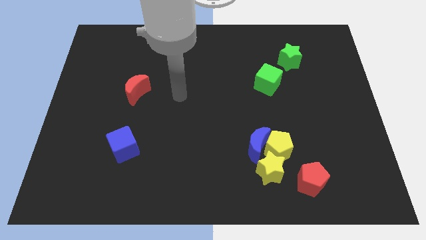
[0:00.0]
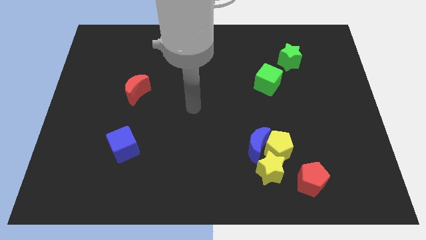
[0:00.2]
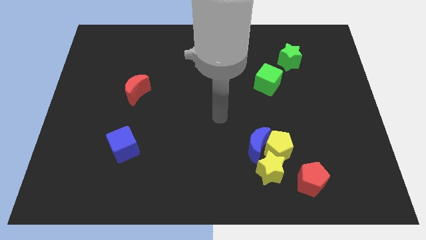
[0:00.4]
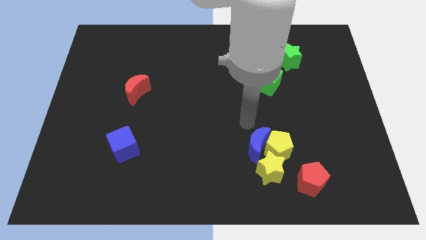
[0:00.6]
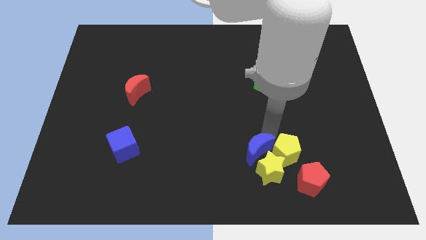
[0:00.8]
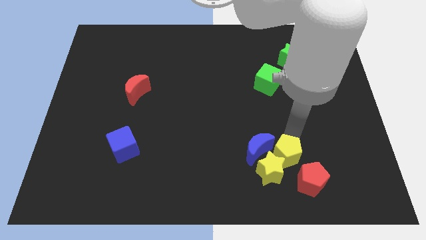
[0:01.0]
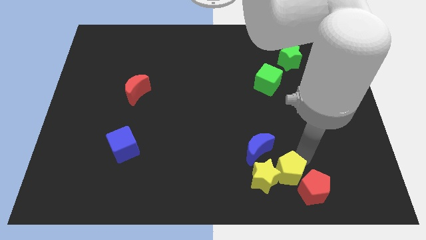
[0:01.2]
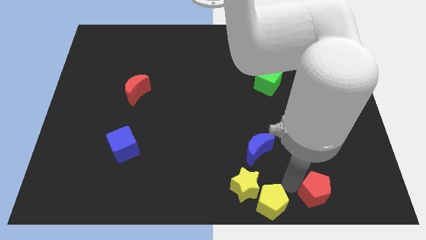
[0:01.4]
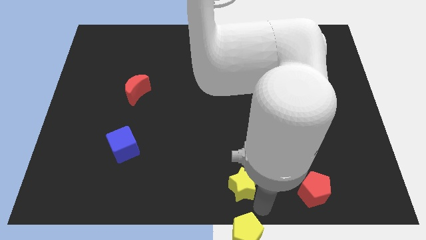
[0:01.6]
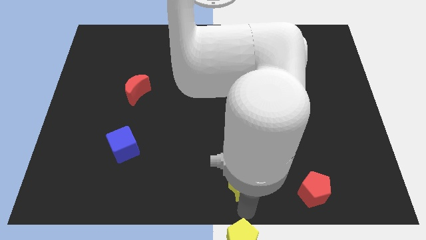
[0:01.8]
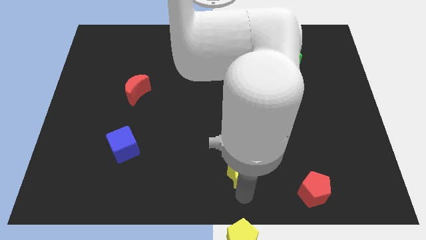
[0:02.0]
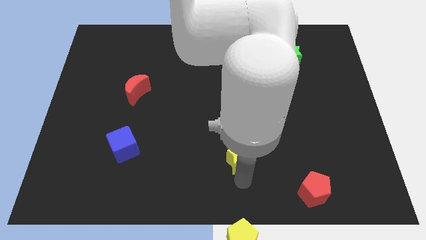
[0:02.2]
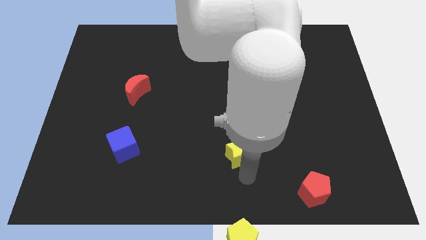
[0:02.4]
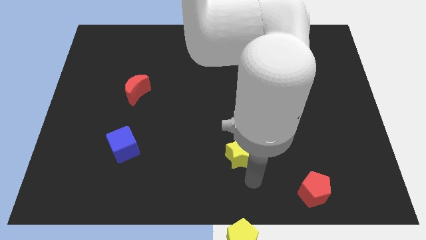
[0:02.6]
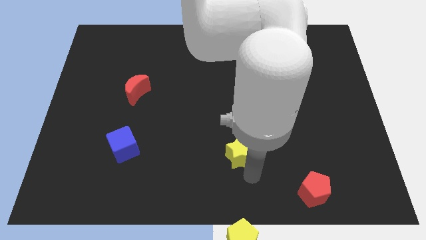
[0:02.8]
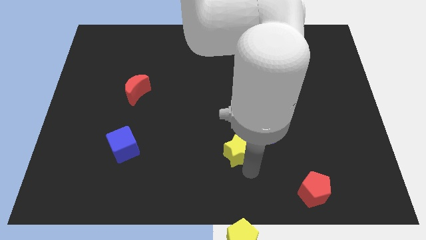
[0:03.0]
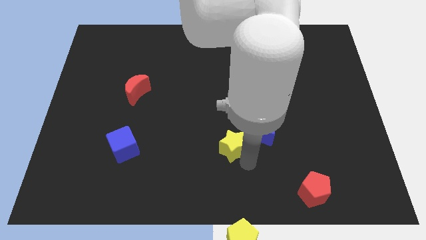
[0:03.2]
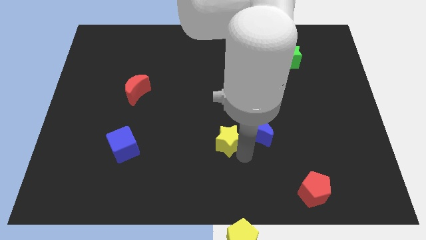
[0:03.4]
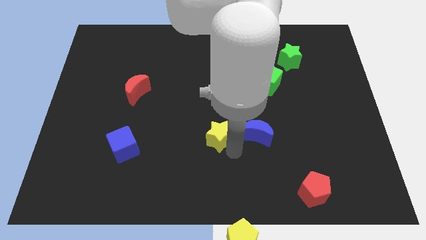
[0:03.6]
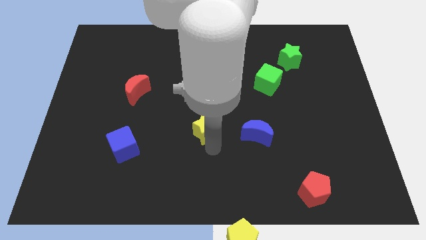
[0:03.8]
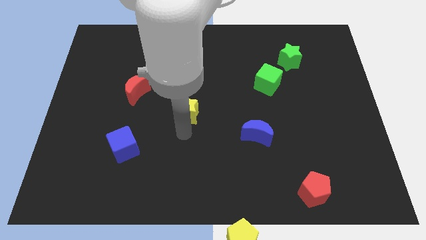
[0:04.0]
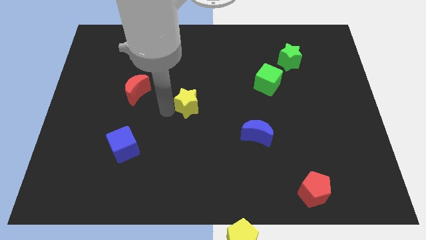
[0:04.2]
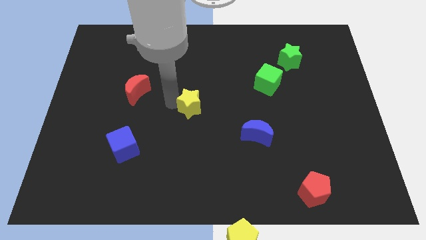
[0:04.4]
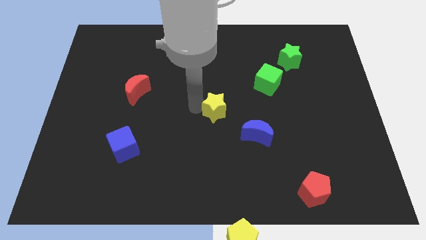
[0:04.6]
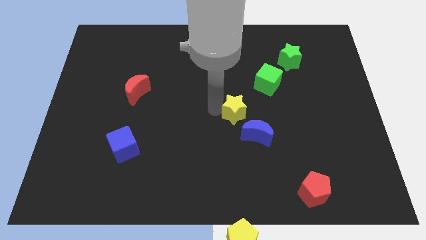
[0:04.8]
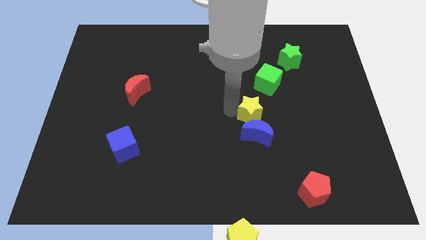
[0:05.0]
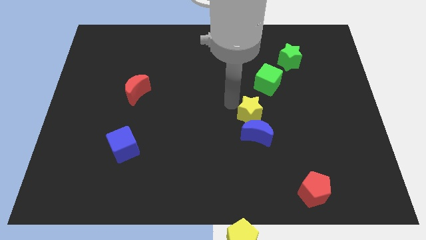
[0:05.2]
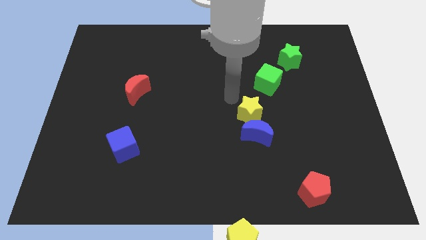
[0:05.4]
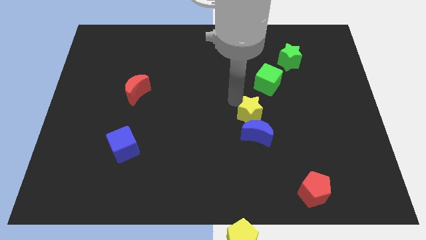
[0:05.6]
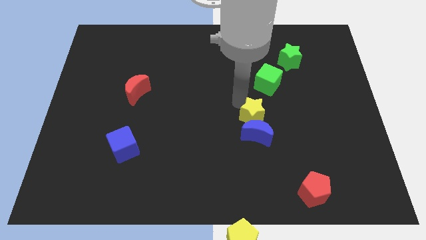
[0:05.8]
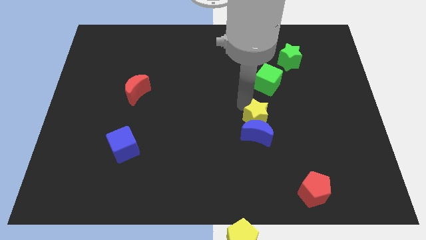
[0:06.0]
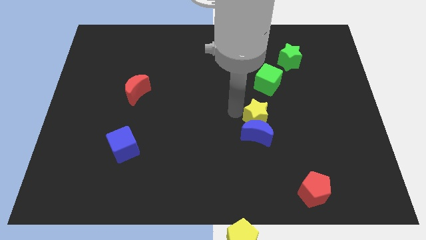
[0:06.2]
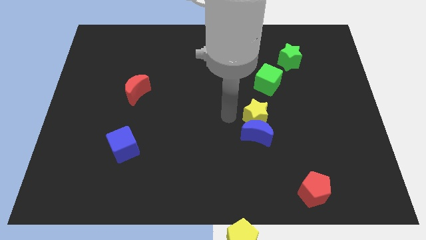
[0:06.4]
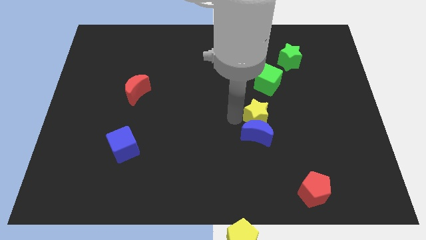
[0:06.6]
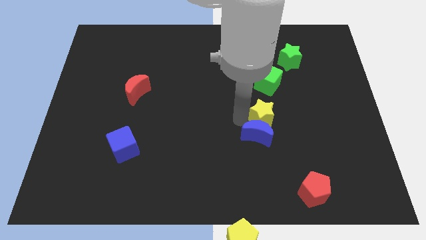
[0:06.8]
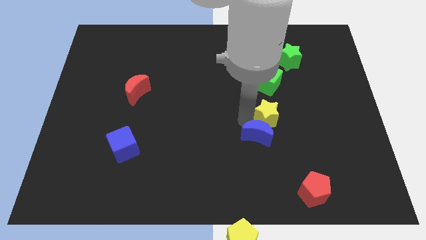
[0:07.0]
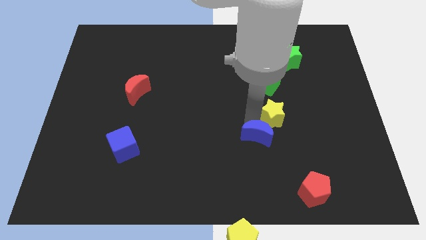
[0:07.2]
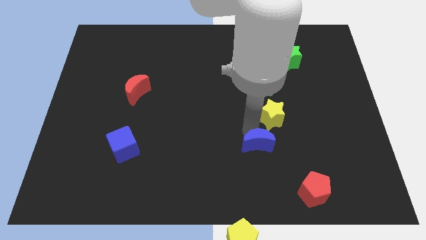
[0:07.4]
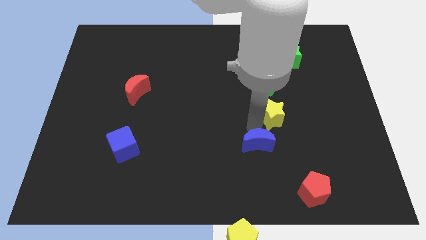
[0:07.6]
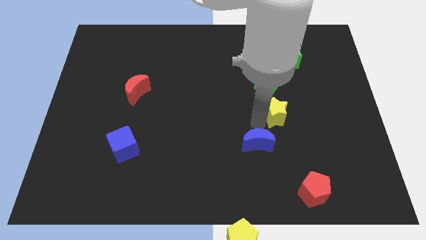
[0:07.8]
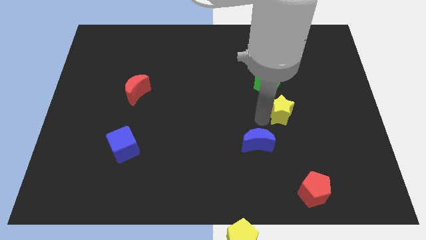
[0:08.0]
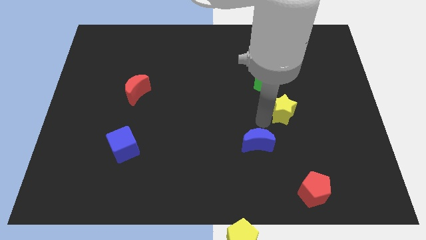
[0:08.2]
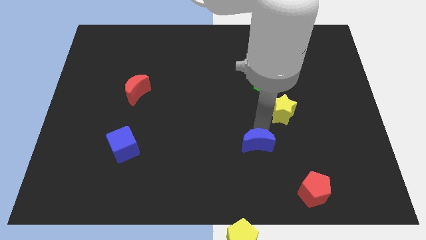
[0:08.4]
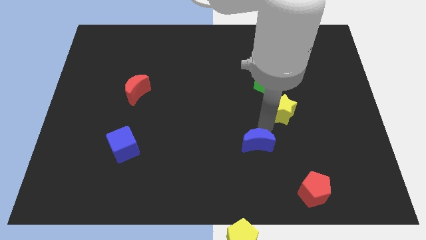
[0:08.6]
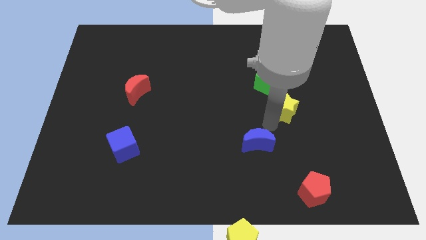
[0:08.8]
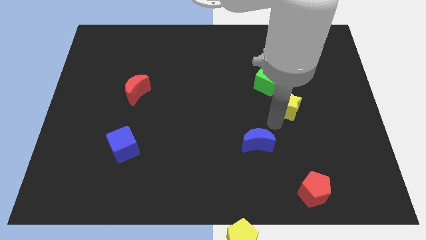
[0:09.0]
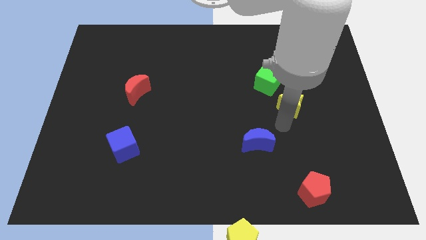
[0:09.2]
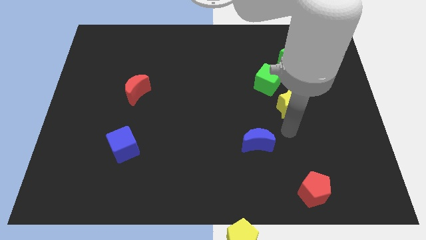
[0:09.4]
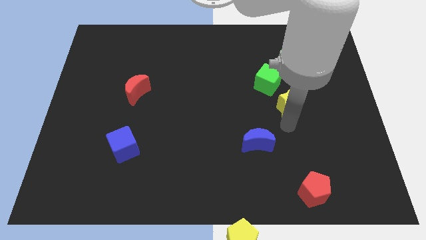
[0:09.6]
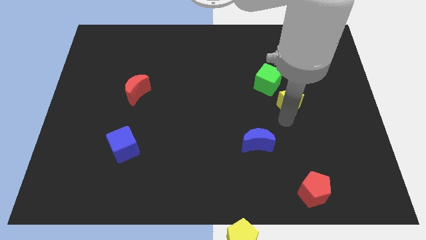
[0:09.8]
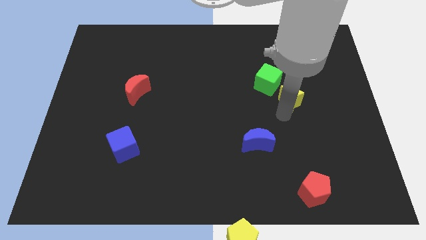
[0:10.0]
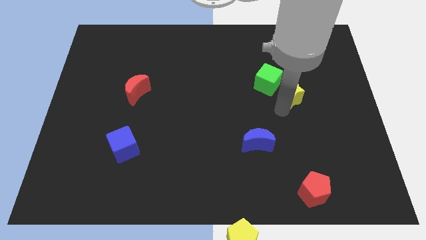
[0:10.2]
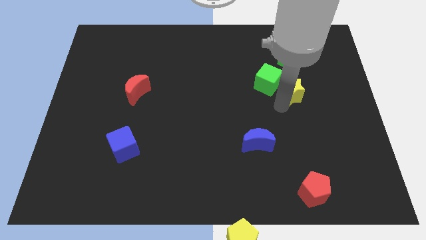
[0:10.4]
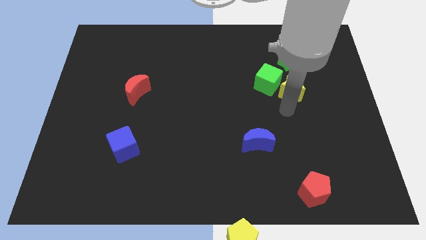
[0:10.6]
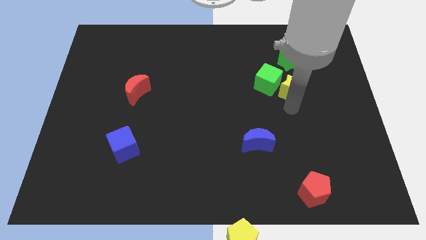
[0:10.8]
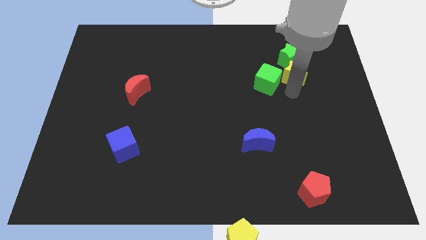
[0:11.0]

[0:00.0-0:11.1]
move the yellow star close to the green star

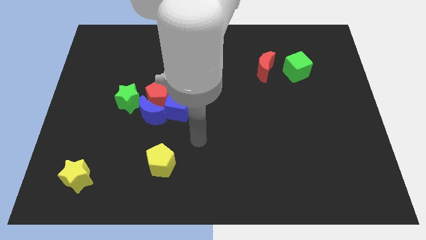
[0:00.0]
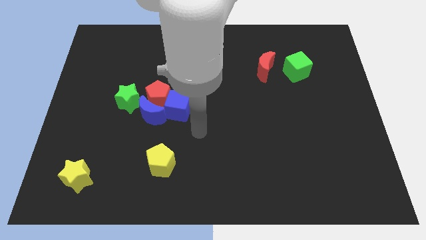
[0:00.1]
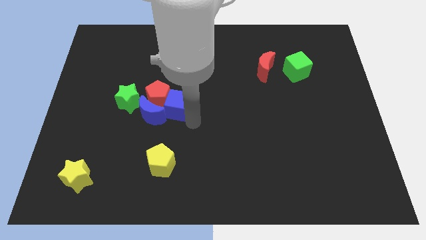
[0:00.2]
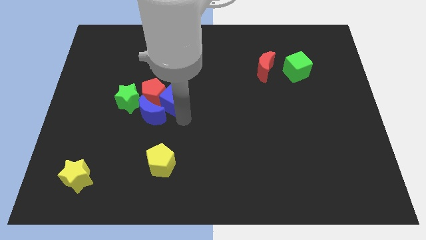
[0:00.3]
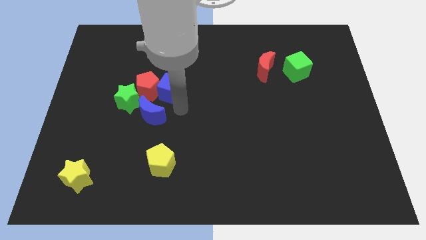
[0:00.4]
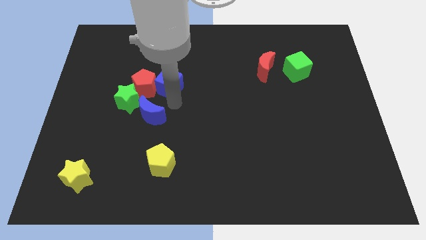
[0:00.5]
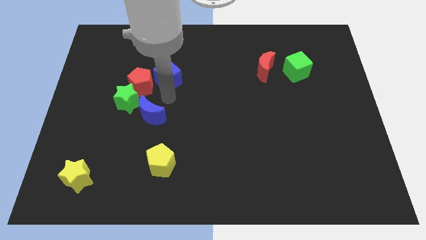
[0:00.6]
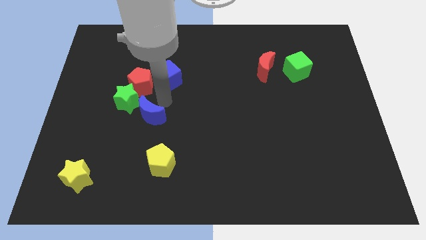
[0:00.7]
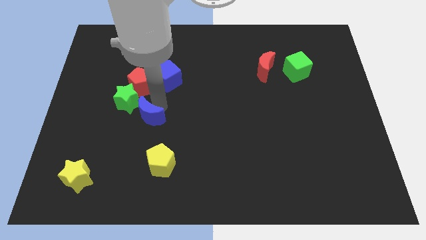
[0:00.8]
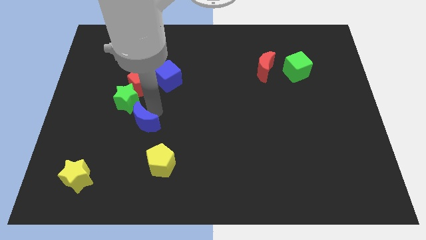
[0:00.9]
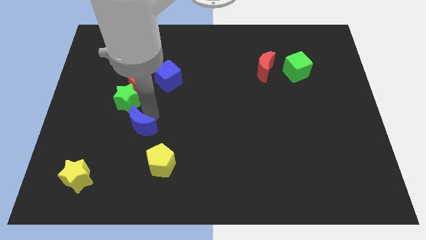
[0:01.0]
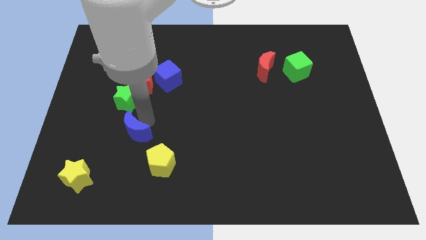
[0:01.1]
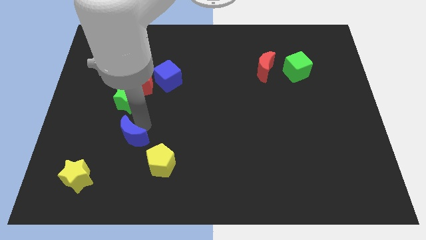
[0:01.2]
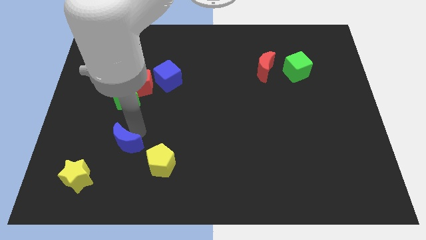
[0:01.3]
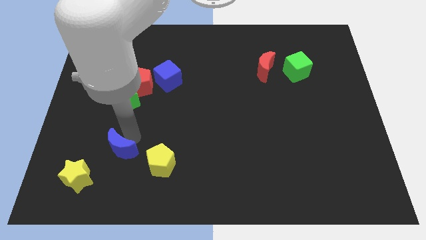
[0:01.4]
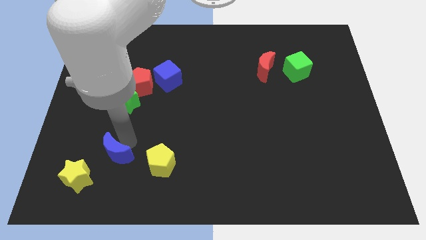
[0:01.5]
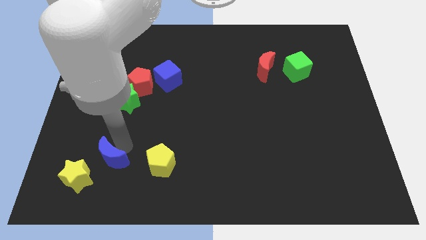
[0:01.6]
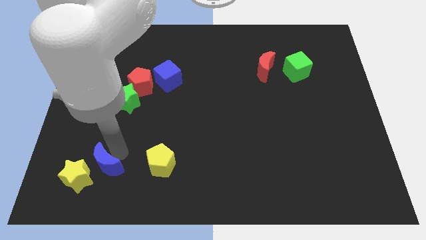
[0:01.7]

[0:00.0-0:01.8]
put the blue moon towards the yellow star

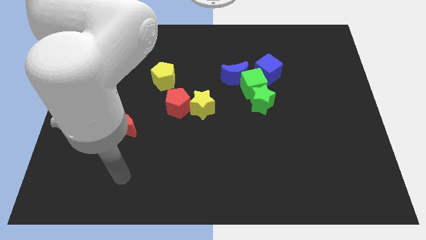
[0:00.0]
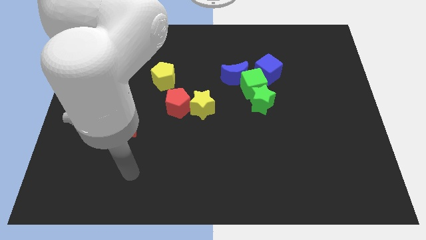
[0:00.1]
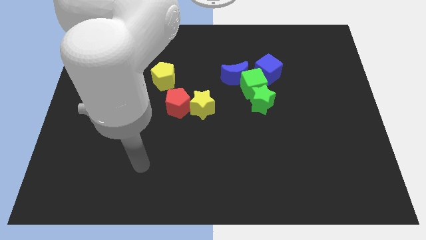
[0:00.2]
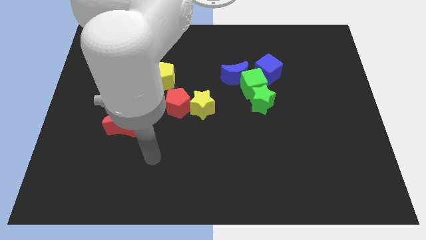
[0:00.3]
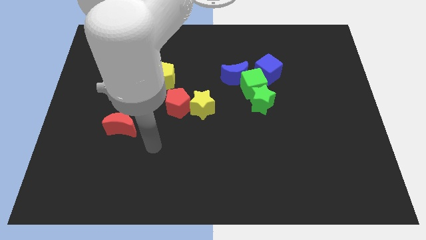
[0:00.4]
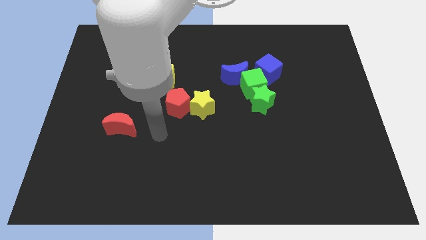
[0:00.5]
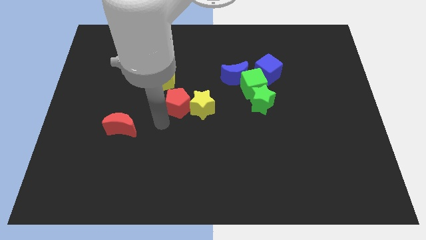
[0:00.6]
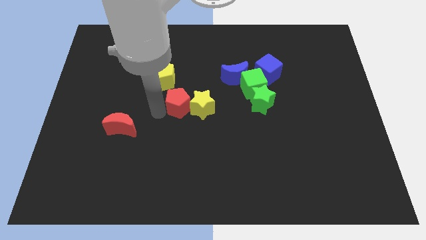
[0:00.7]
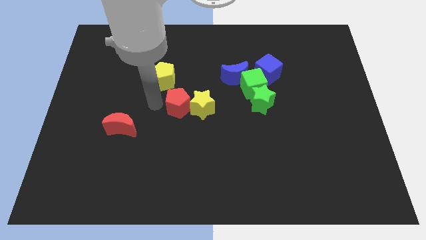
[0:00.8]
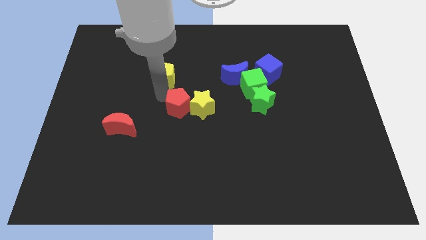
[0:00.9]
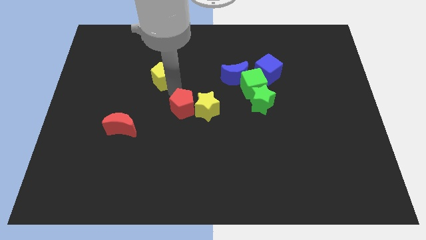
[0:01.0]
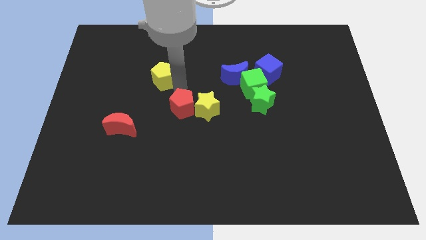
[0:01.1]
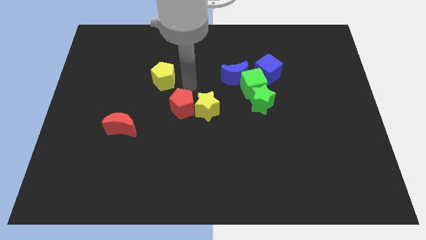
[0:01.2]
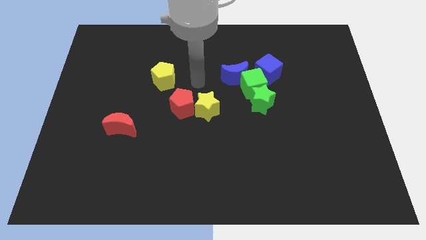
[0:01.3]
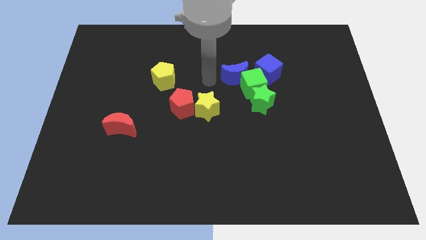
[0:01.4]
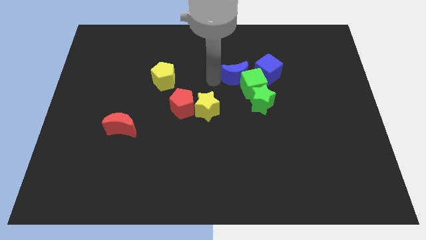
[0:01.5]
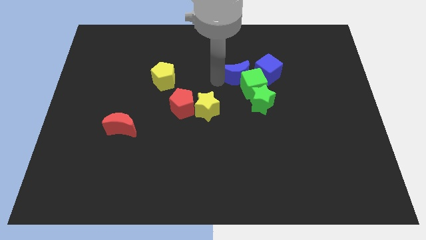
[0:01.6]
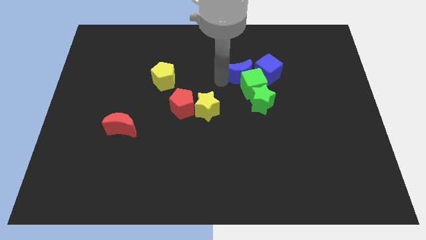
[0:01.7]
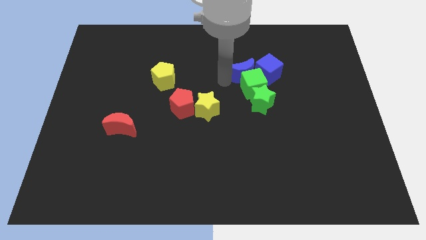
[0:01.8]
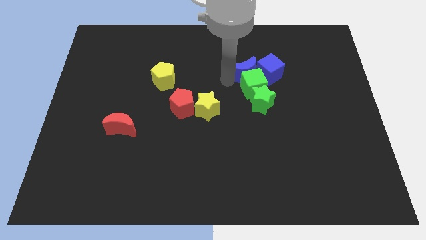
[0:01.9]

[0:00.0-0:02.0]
put the blue moon towards the blue cube
